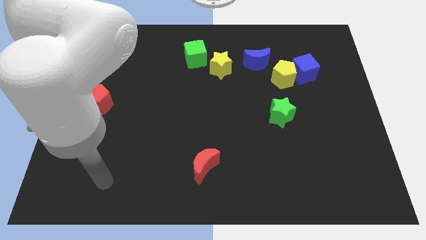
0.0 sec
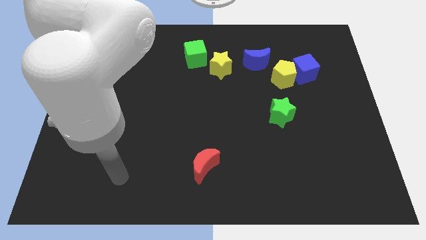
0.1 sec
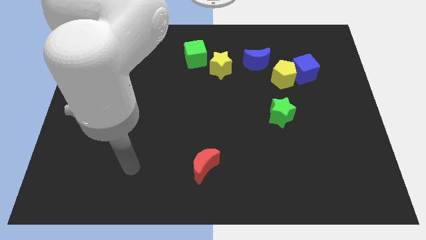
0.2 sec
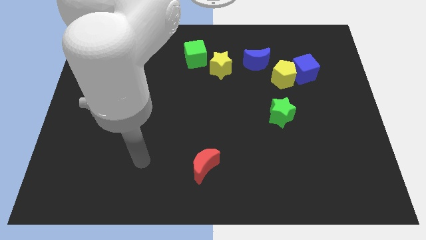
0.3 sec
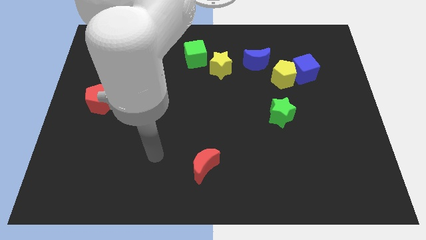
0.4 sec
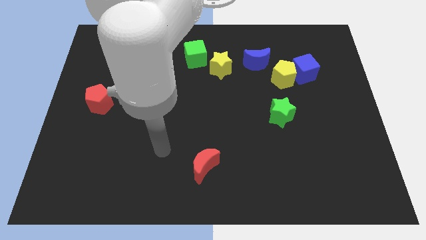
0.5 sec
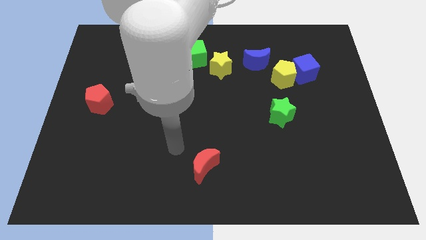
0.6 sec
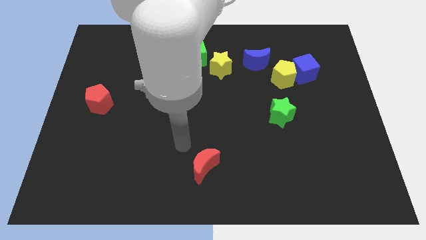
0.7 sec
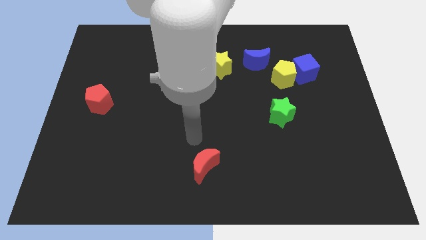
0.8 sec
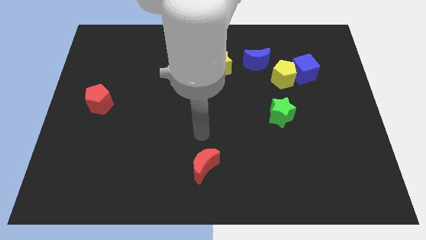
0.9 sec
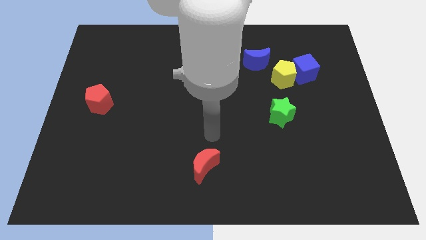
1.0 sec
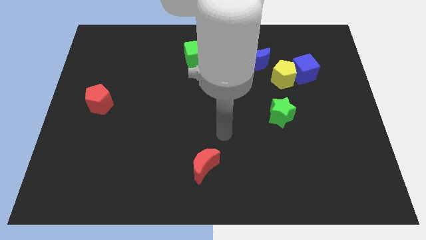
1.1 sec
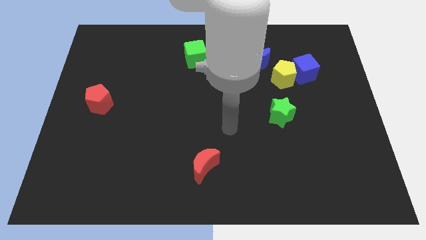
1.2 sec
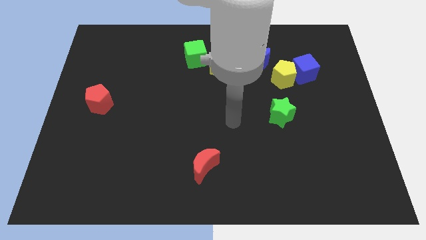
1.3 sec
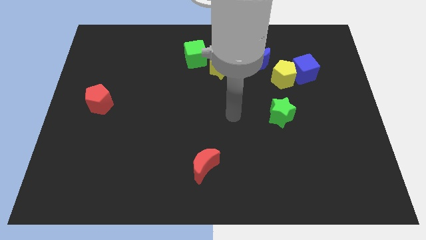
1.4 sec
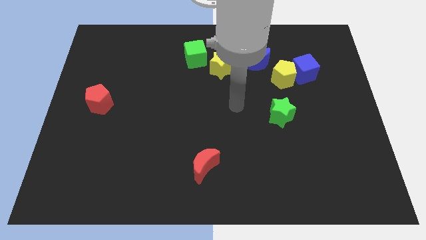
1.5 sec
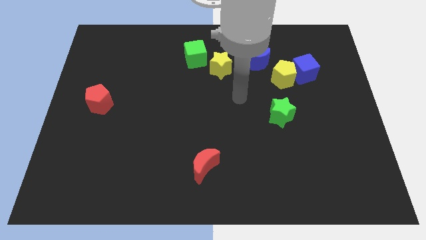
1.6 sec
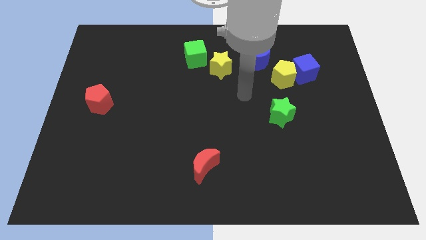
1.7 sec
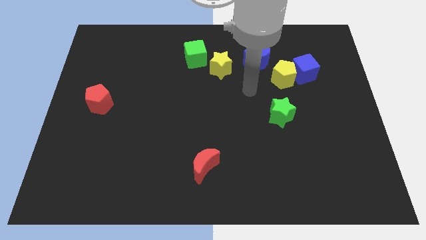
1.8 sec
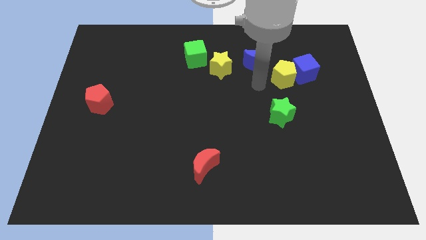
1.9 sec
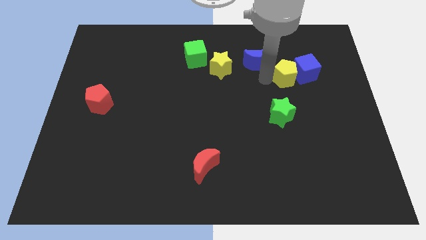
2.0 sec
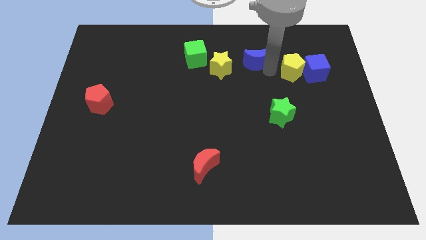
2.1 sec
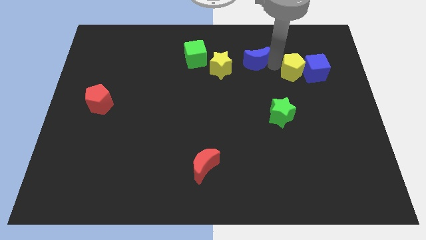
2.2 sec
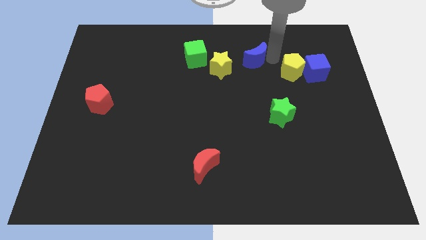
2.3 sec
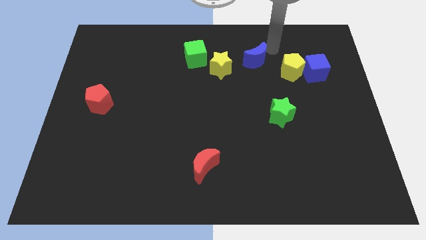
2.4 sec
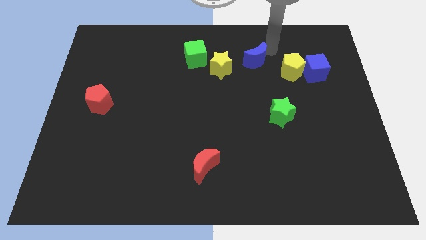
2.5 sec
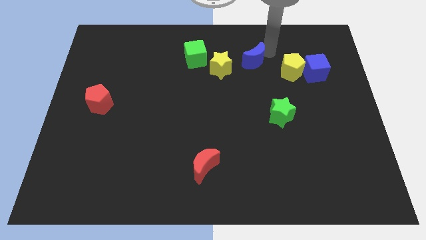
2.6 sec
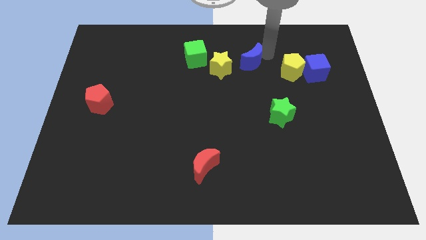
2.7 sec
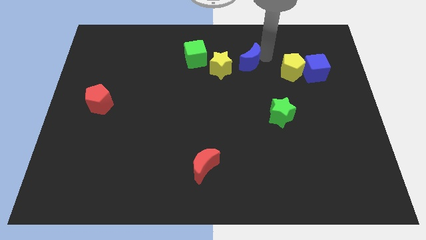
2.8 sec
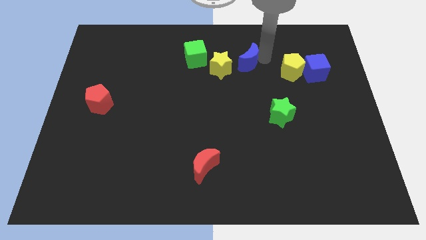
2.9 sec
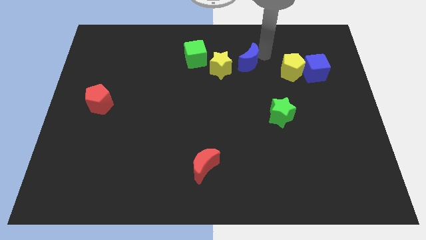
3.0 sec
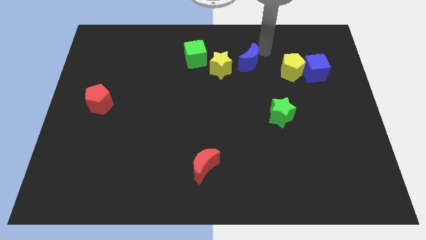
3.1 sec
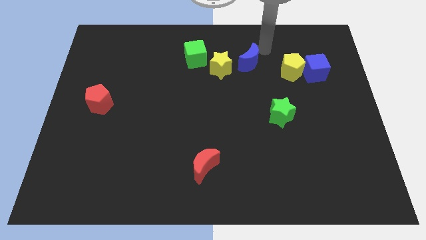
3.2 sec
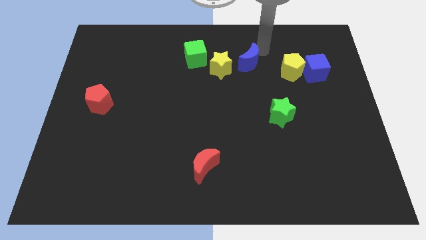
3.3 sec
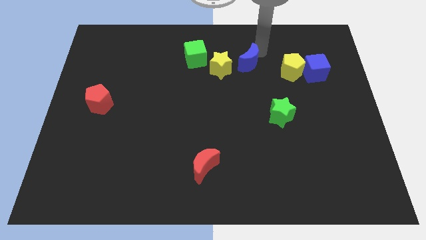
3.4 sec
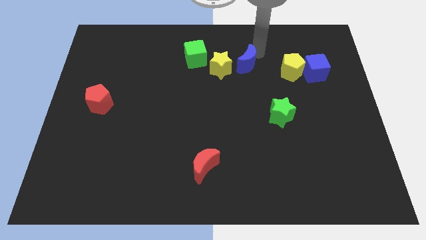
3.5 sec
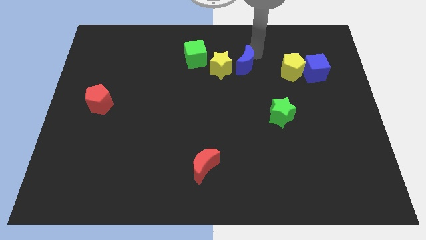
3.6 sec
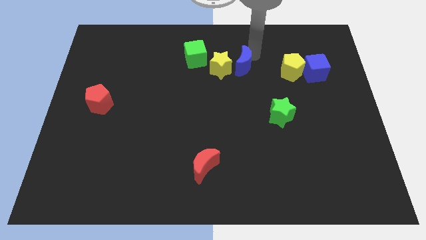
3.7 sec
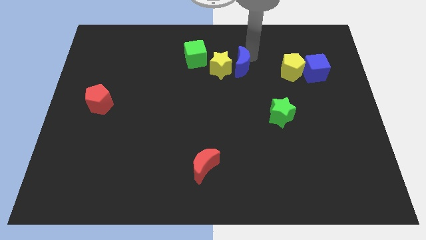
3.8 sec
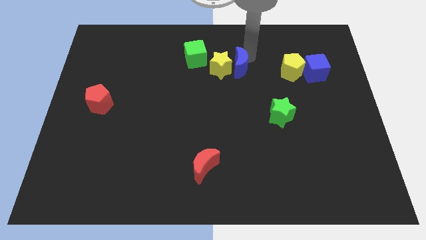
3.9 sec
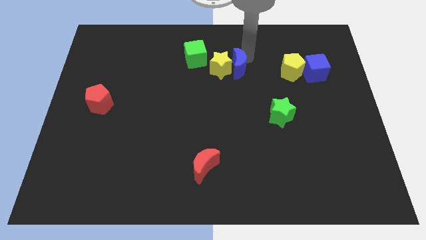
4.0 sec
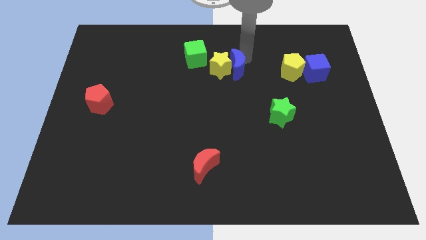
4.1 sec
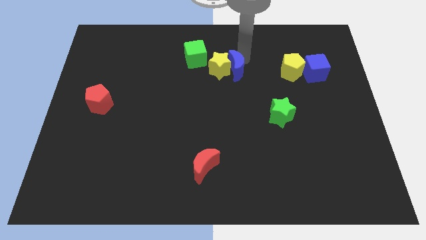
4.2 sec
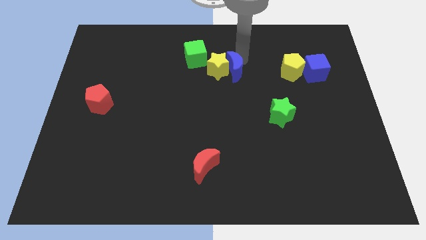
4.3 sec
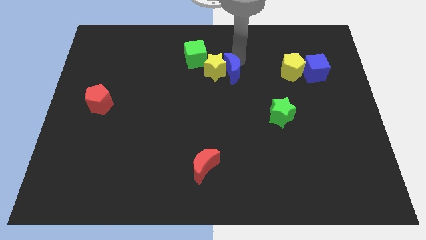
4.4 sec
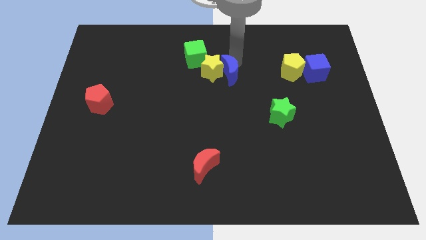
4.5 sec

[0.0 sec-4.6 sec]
slide the blue moon downwards and left diagonally slightly

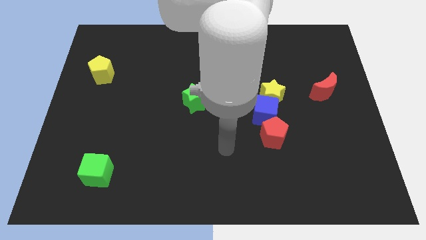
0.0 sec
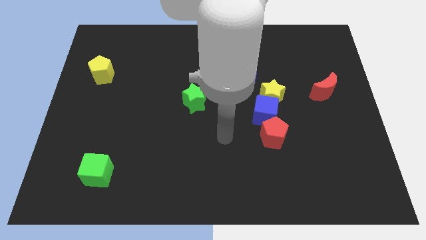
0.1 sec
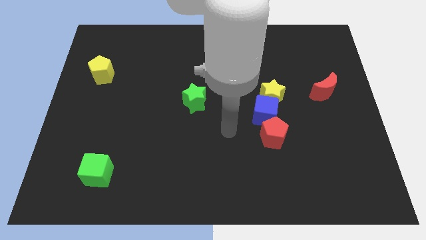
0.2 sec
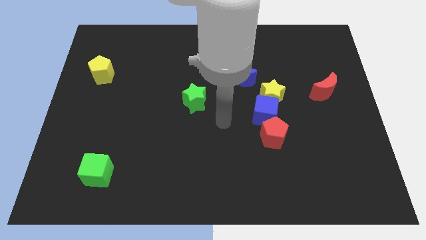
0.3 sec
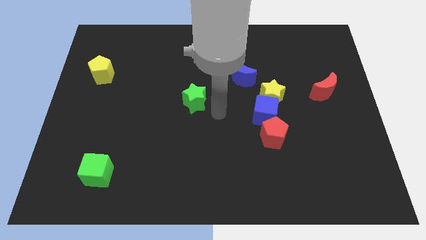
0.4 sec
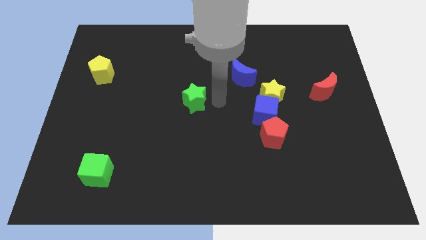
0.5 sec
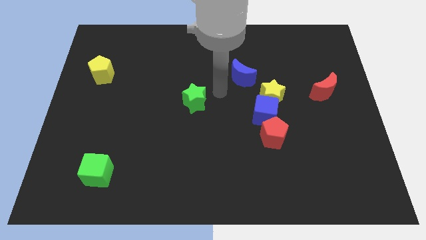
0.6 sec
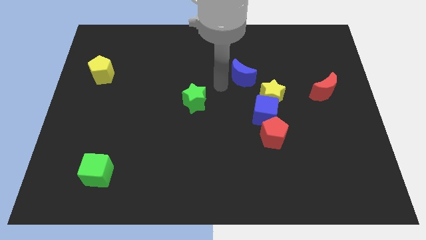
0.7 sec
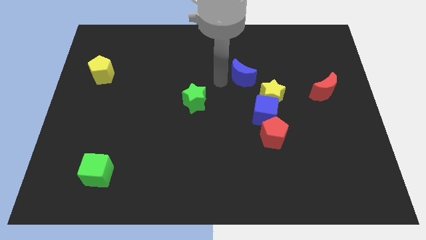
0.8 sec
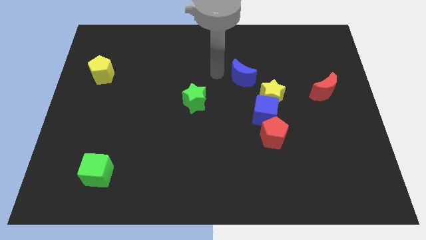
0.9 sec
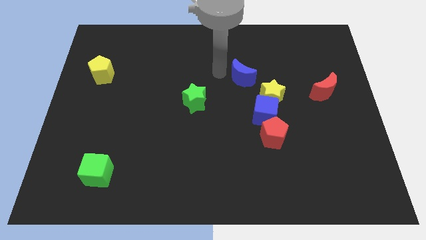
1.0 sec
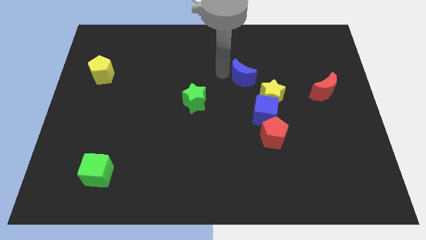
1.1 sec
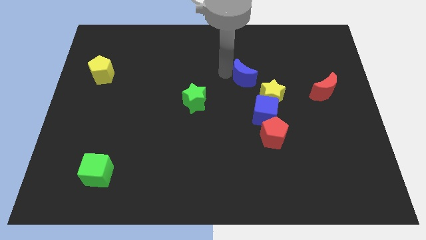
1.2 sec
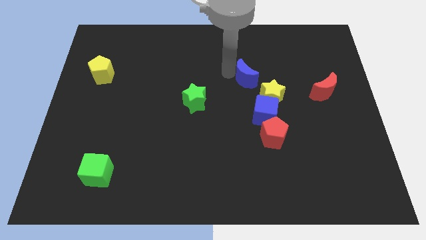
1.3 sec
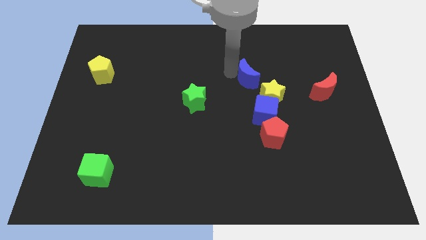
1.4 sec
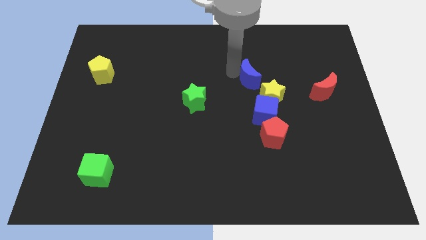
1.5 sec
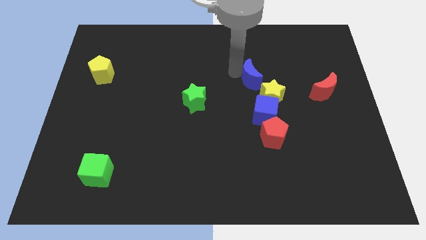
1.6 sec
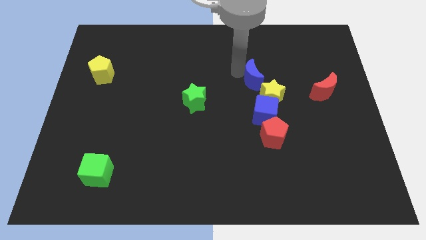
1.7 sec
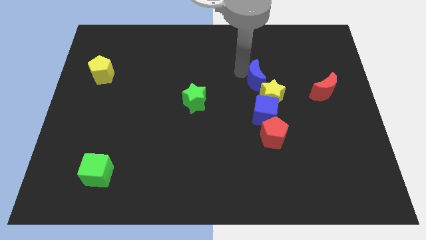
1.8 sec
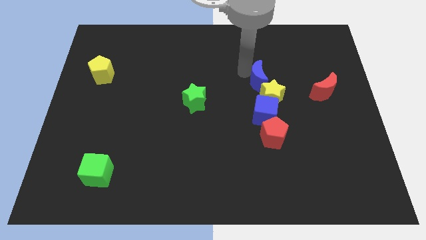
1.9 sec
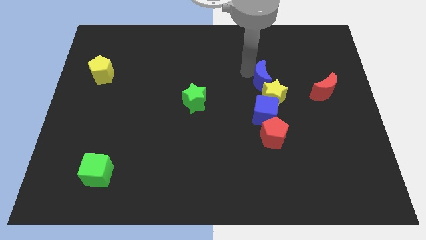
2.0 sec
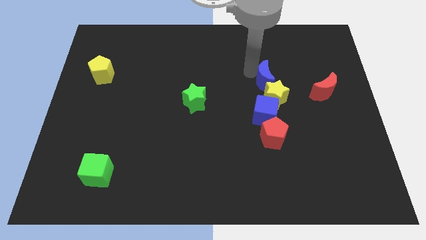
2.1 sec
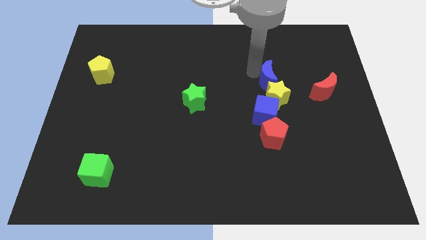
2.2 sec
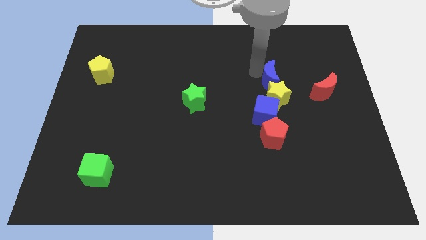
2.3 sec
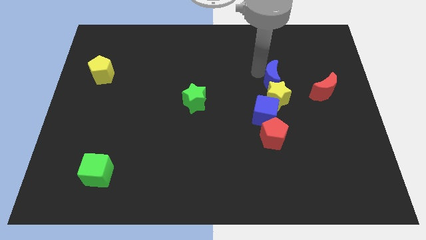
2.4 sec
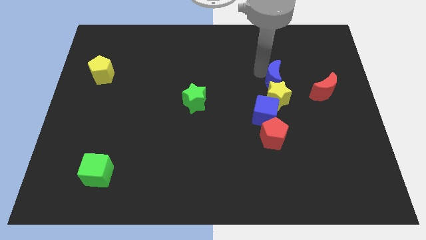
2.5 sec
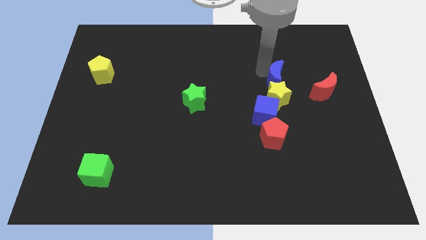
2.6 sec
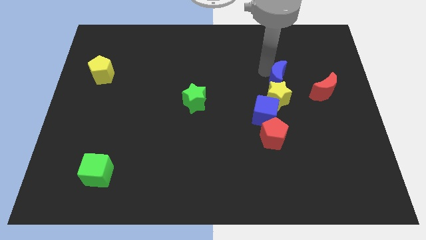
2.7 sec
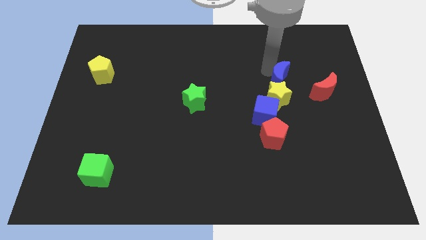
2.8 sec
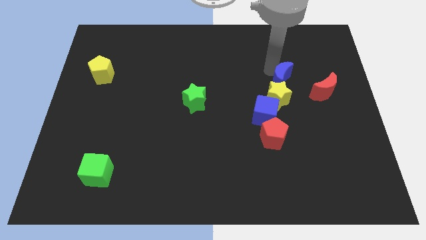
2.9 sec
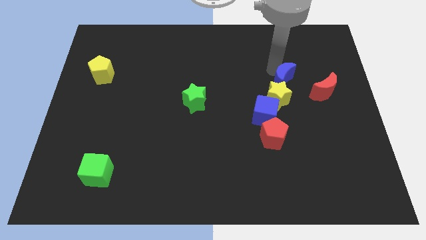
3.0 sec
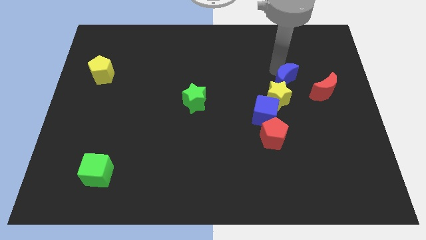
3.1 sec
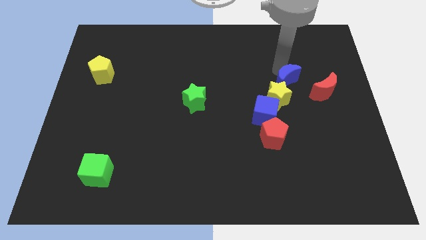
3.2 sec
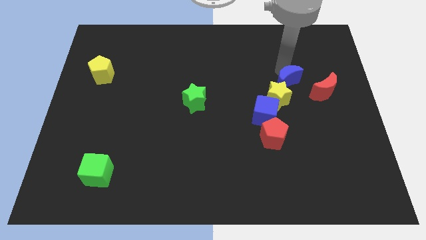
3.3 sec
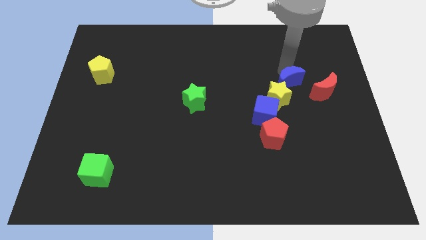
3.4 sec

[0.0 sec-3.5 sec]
slightly slide the blue moon diagonally downwards and to the right
